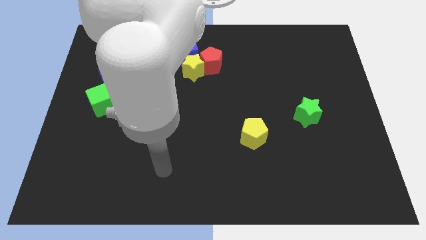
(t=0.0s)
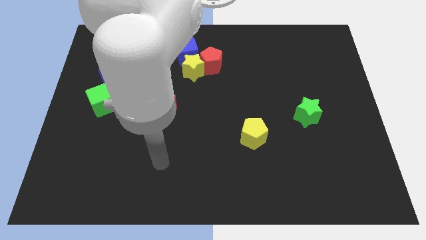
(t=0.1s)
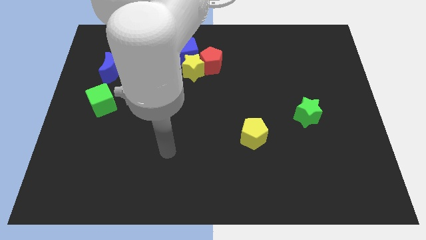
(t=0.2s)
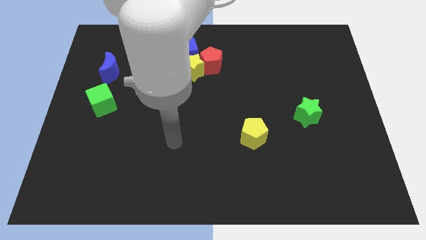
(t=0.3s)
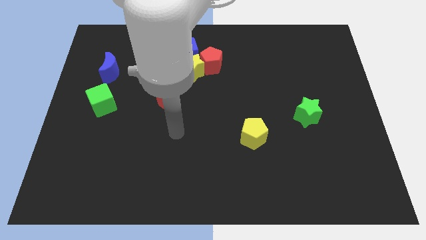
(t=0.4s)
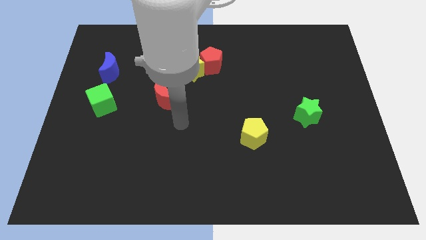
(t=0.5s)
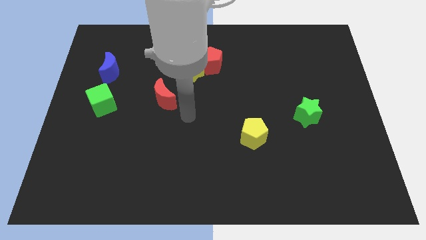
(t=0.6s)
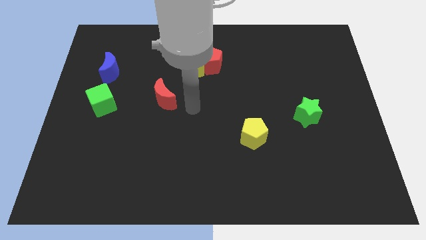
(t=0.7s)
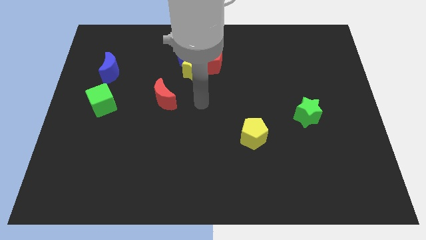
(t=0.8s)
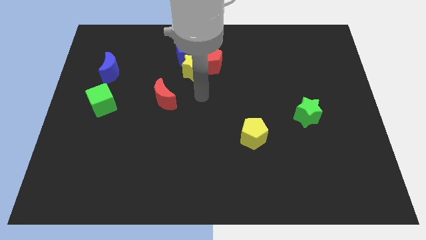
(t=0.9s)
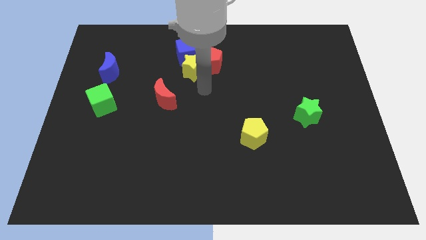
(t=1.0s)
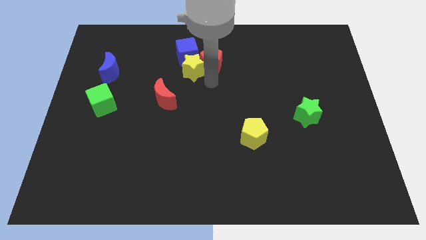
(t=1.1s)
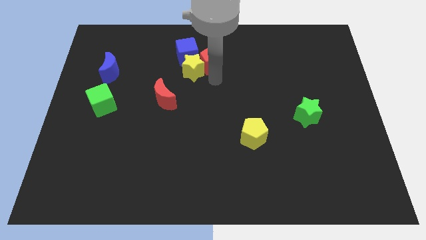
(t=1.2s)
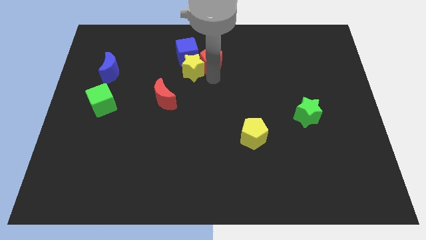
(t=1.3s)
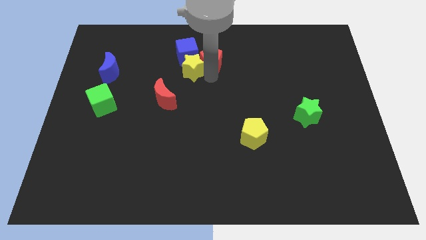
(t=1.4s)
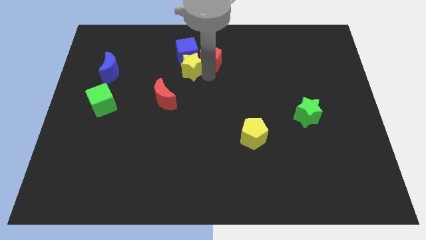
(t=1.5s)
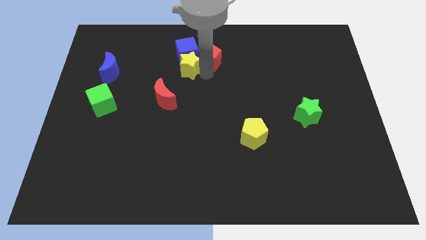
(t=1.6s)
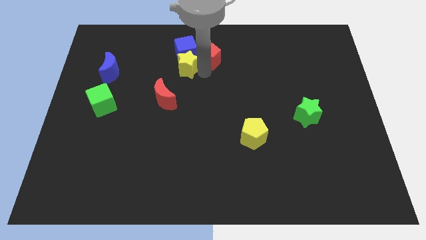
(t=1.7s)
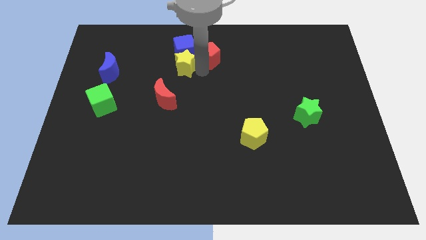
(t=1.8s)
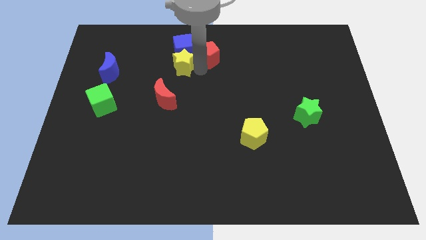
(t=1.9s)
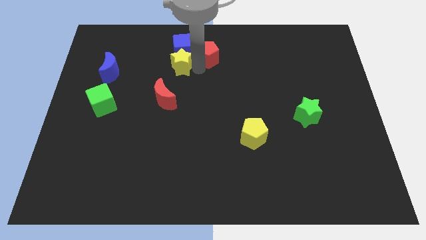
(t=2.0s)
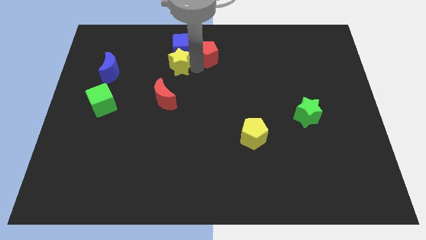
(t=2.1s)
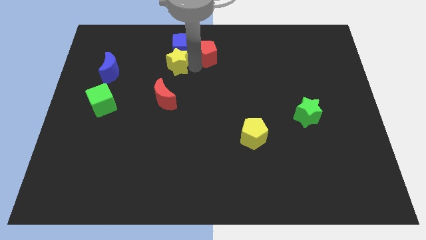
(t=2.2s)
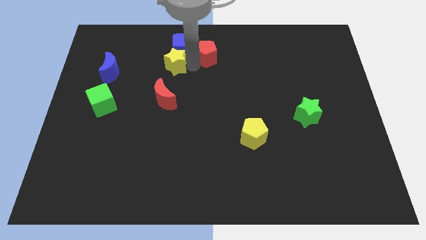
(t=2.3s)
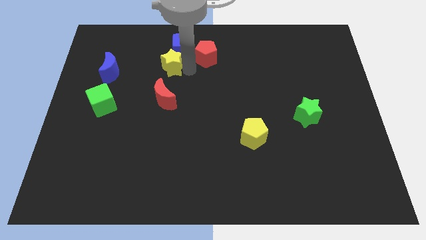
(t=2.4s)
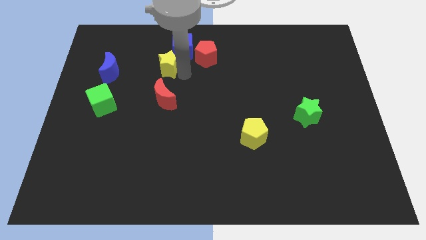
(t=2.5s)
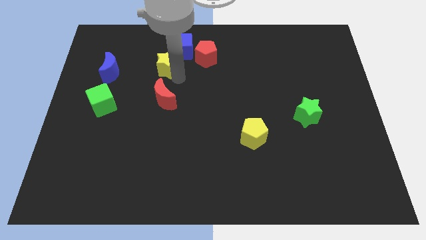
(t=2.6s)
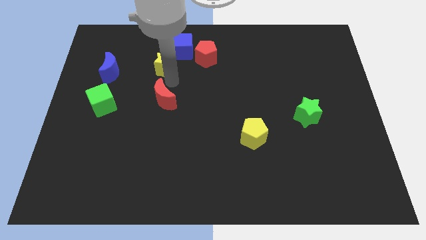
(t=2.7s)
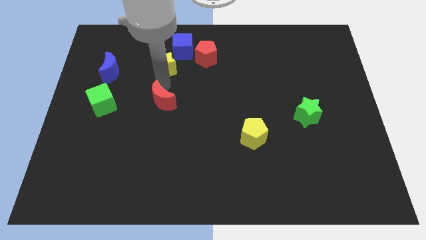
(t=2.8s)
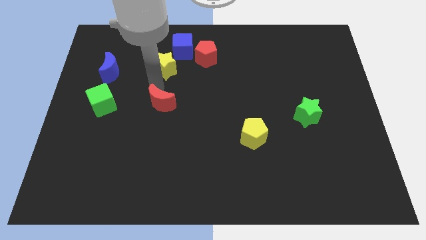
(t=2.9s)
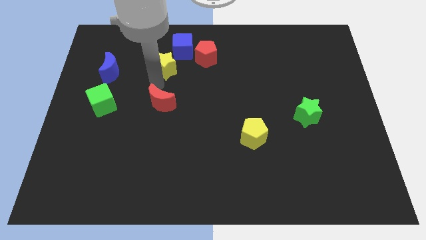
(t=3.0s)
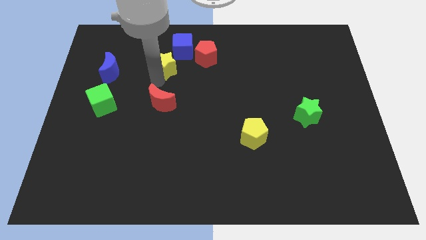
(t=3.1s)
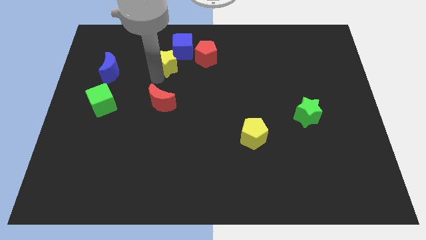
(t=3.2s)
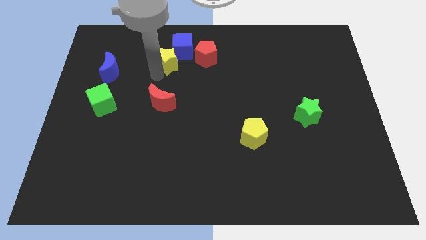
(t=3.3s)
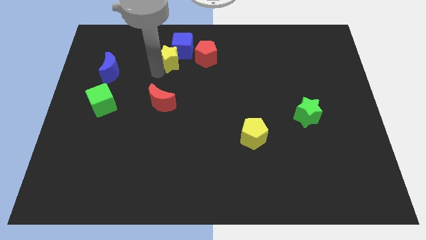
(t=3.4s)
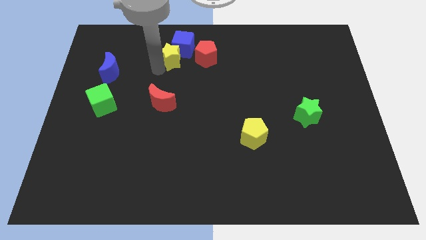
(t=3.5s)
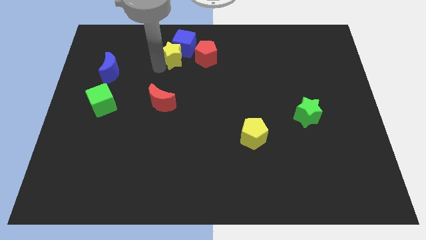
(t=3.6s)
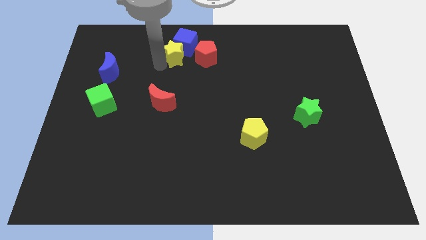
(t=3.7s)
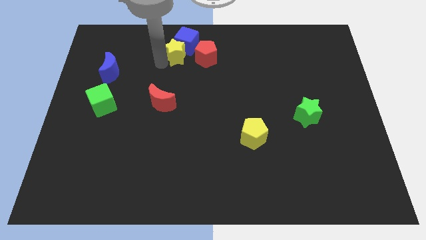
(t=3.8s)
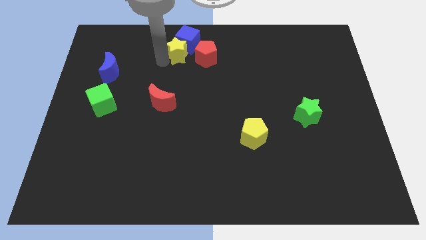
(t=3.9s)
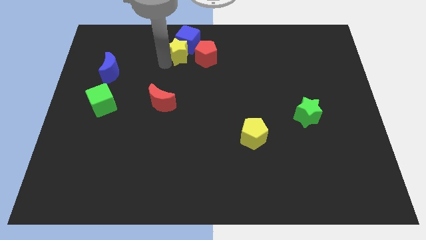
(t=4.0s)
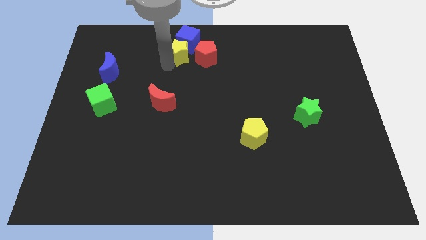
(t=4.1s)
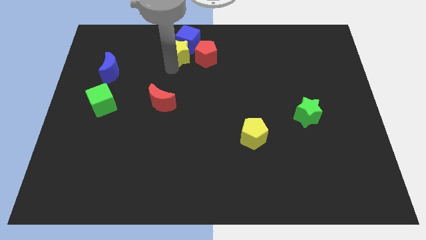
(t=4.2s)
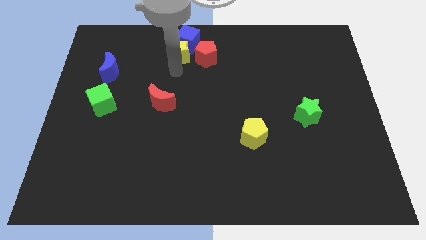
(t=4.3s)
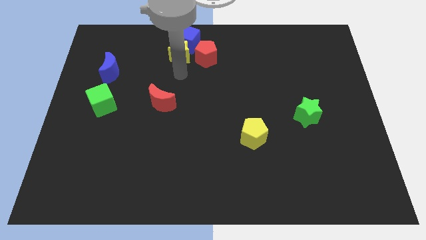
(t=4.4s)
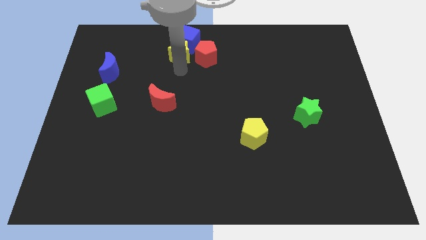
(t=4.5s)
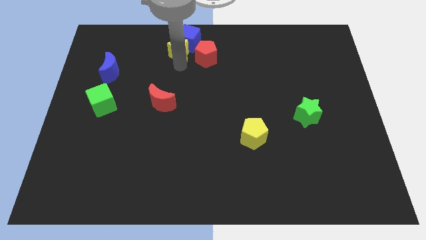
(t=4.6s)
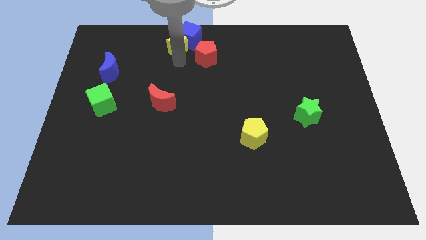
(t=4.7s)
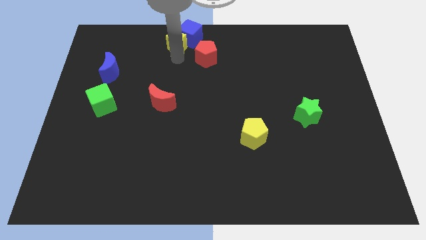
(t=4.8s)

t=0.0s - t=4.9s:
put the yellow star to the top side

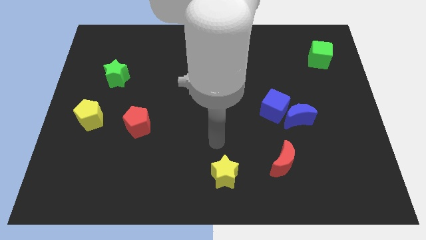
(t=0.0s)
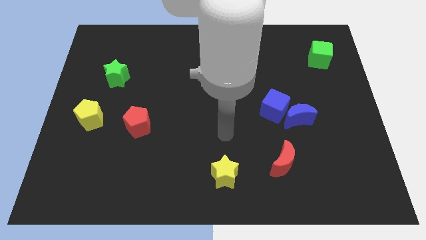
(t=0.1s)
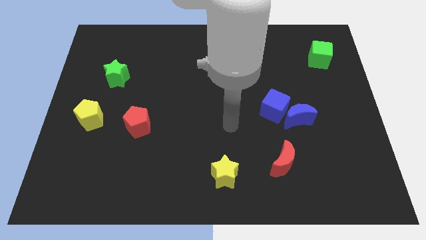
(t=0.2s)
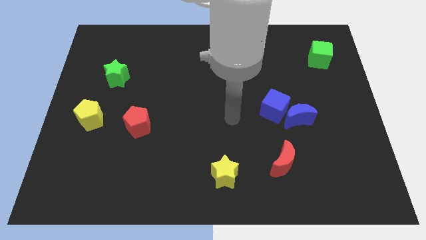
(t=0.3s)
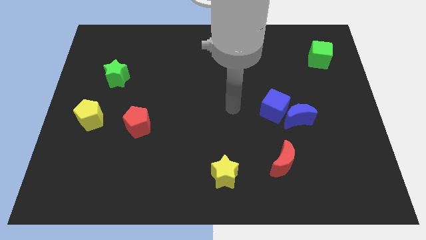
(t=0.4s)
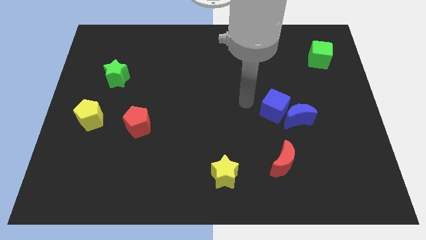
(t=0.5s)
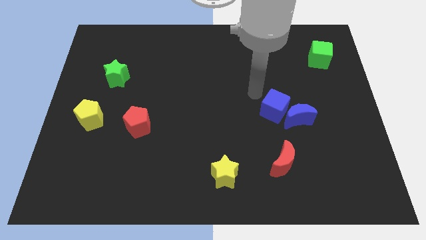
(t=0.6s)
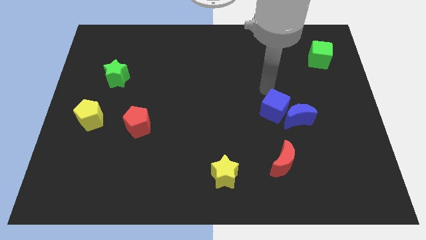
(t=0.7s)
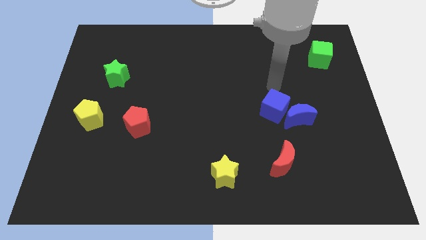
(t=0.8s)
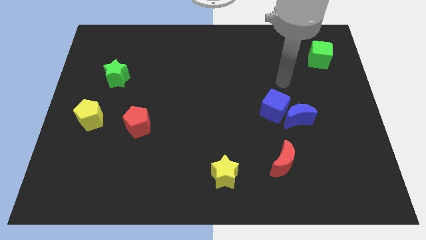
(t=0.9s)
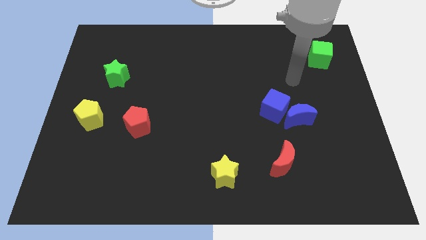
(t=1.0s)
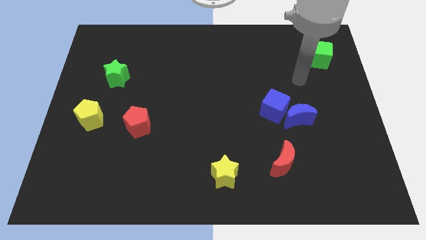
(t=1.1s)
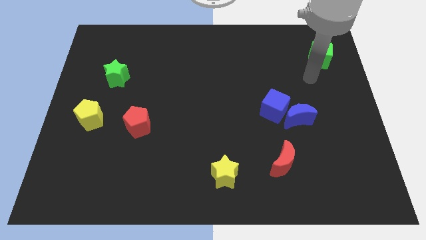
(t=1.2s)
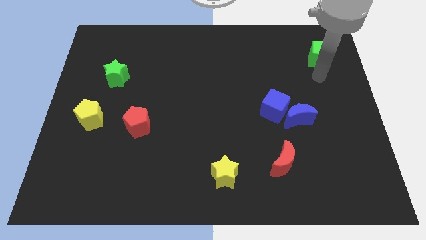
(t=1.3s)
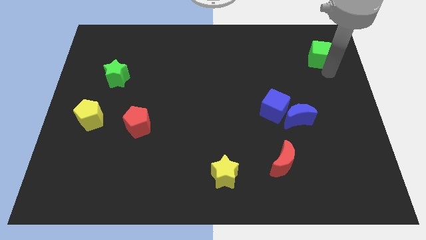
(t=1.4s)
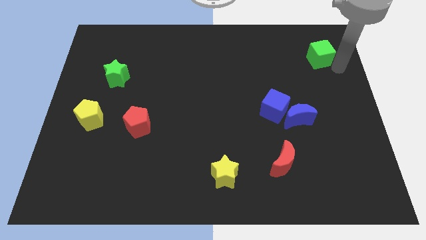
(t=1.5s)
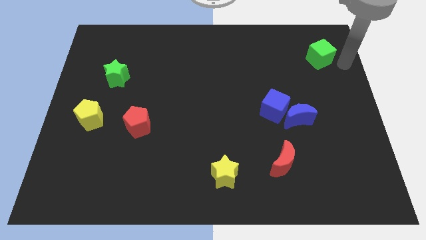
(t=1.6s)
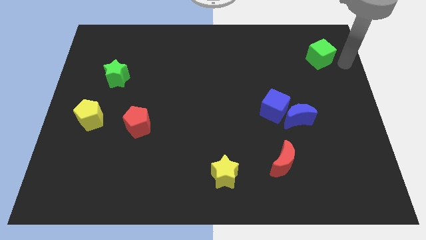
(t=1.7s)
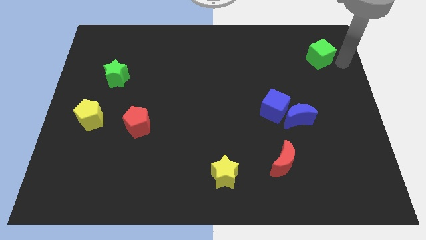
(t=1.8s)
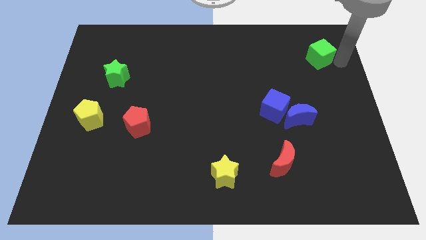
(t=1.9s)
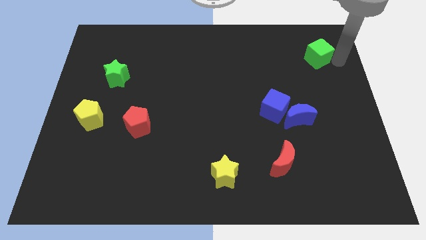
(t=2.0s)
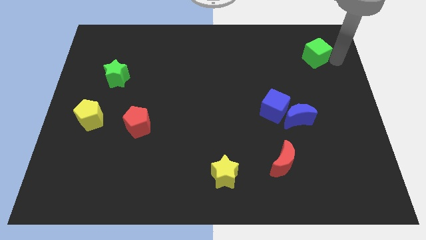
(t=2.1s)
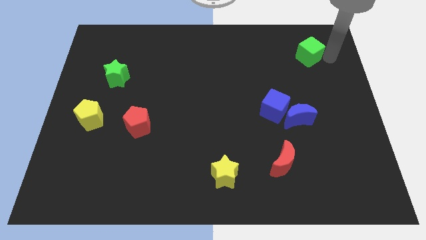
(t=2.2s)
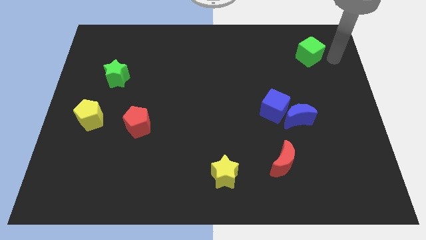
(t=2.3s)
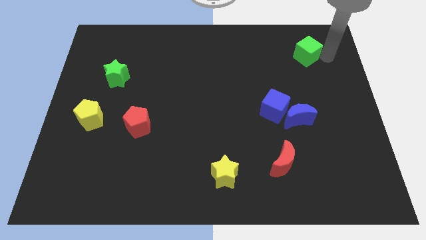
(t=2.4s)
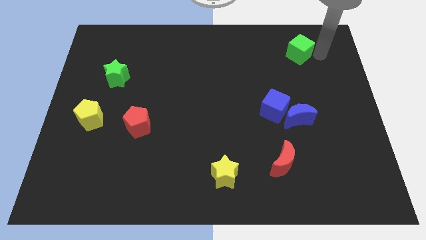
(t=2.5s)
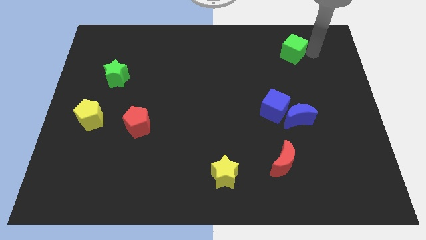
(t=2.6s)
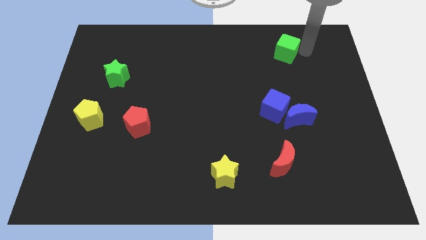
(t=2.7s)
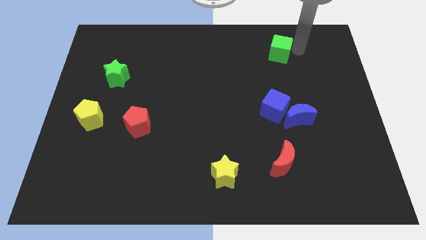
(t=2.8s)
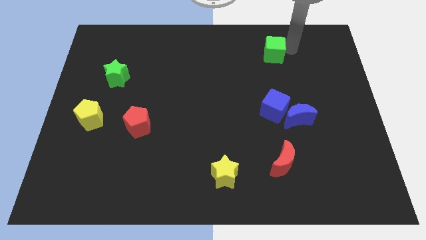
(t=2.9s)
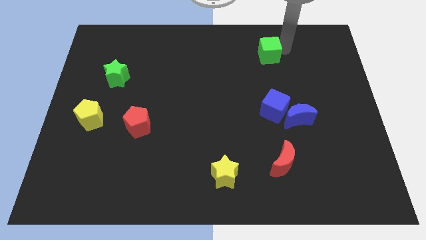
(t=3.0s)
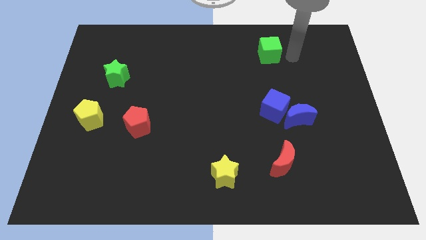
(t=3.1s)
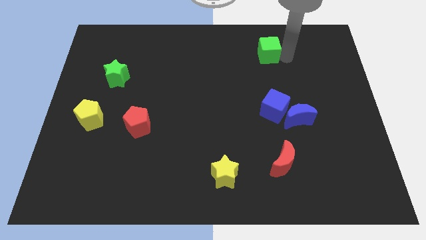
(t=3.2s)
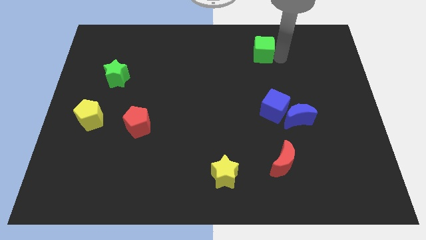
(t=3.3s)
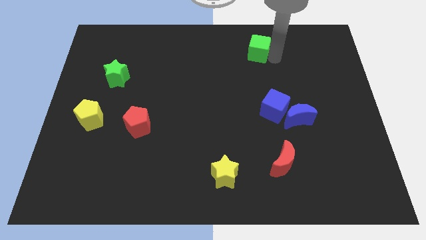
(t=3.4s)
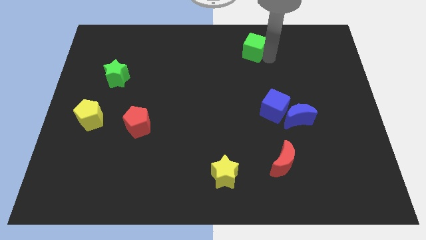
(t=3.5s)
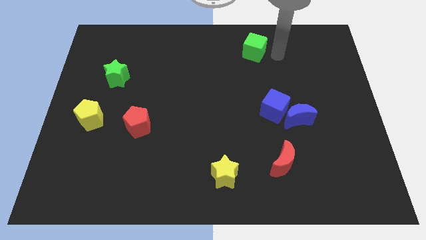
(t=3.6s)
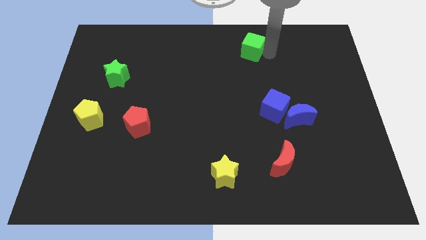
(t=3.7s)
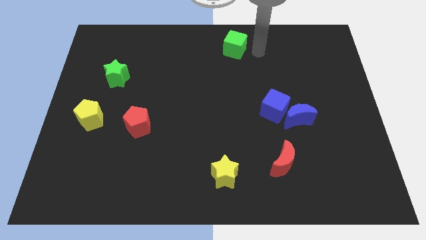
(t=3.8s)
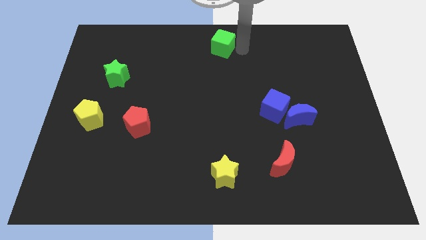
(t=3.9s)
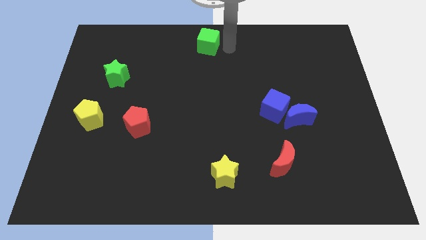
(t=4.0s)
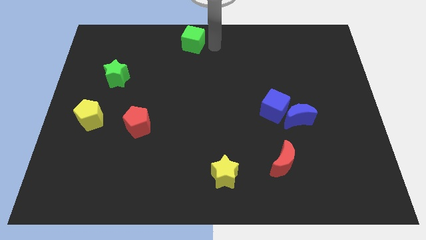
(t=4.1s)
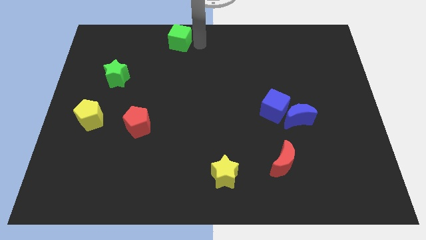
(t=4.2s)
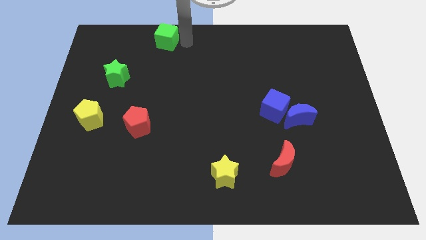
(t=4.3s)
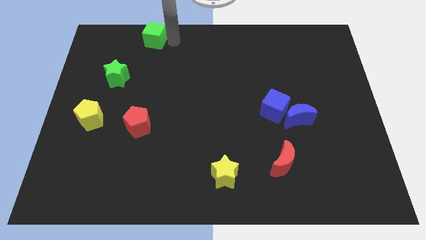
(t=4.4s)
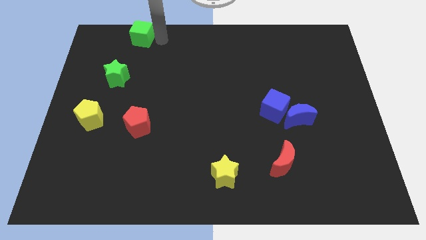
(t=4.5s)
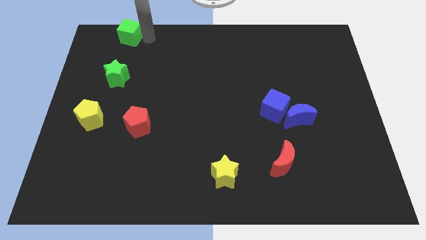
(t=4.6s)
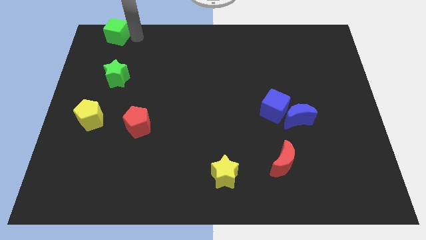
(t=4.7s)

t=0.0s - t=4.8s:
put the green cube to the top left
